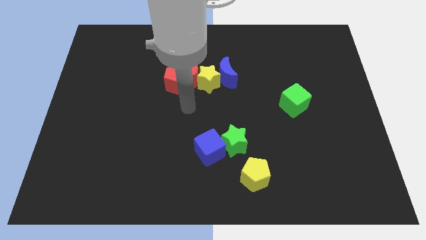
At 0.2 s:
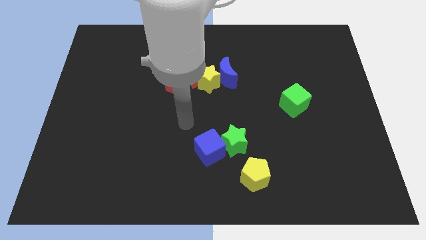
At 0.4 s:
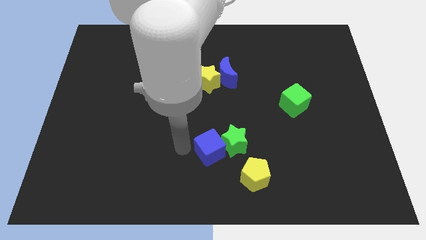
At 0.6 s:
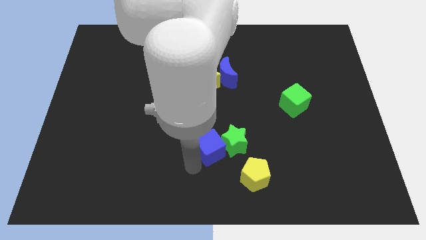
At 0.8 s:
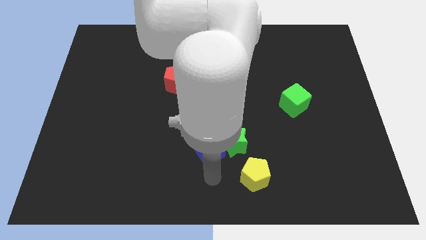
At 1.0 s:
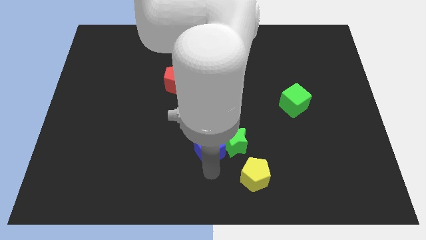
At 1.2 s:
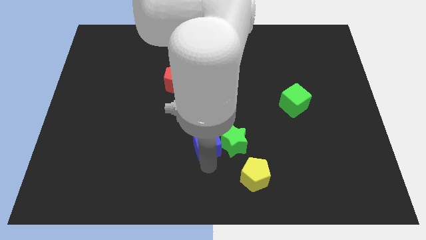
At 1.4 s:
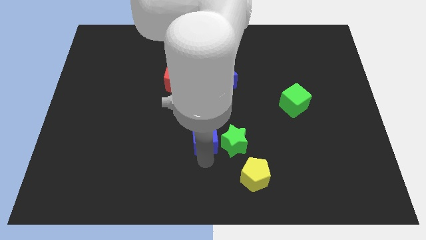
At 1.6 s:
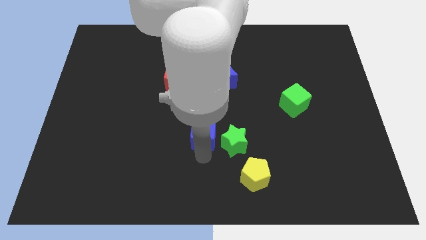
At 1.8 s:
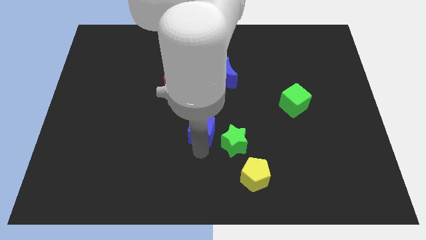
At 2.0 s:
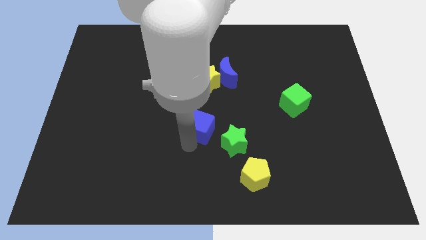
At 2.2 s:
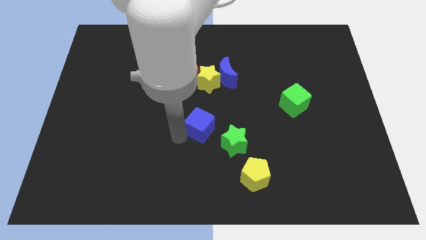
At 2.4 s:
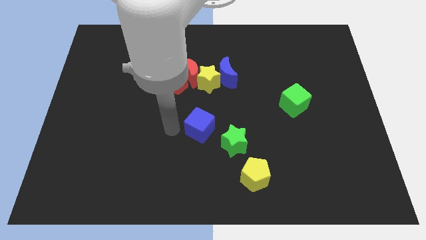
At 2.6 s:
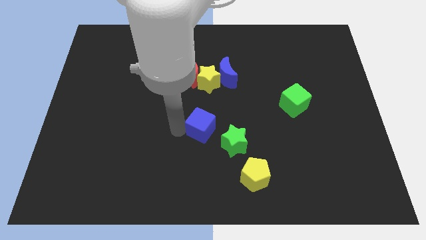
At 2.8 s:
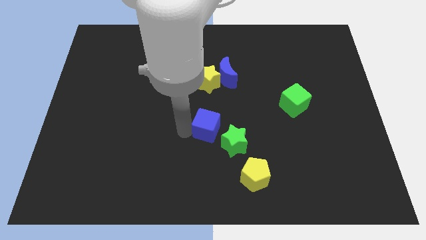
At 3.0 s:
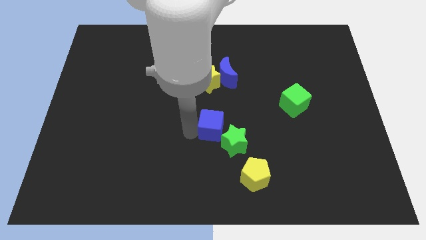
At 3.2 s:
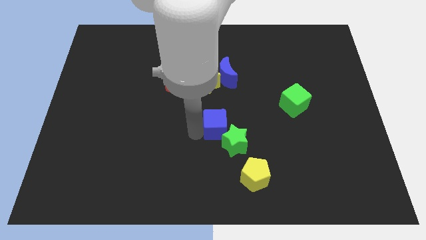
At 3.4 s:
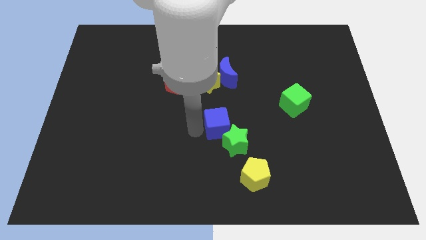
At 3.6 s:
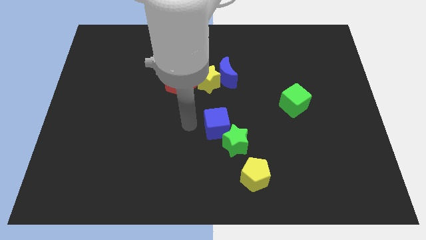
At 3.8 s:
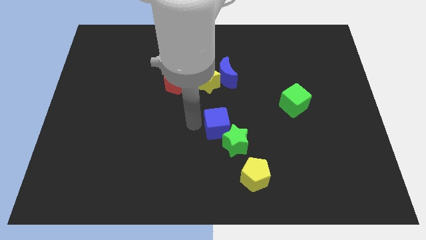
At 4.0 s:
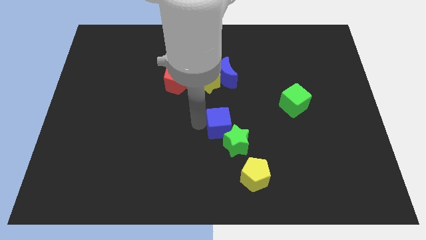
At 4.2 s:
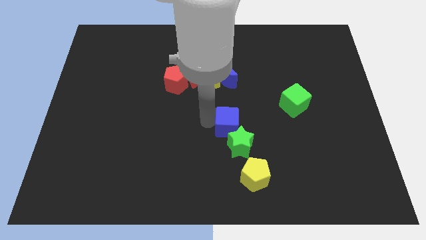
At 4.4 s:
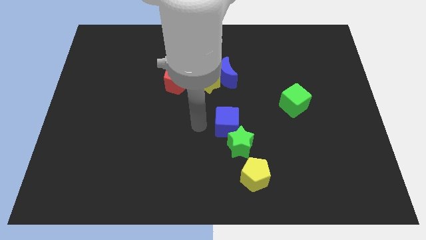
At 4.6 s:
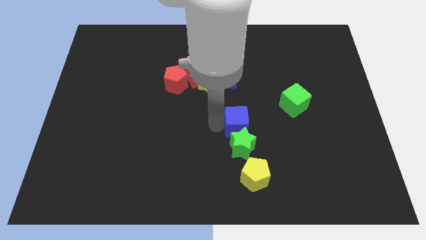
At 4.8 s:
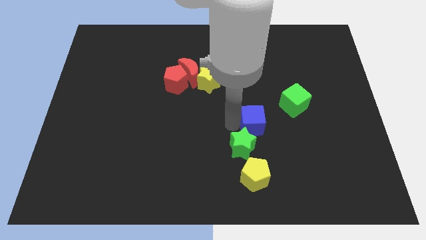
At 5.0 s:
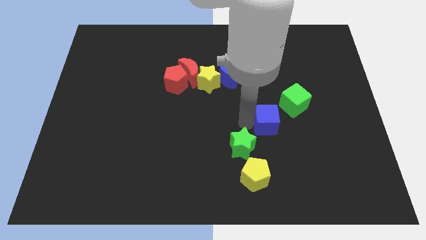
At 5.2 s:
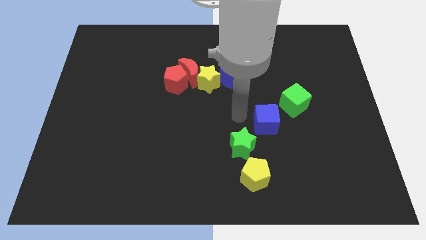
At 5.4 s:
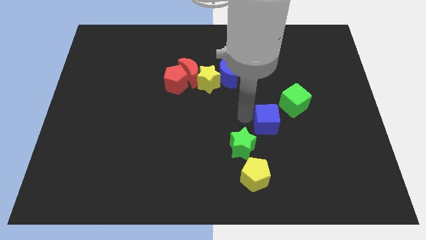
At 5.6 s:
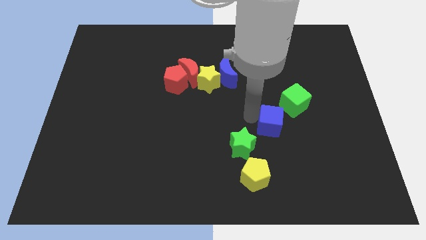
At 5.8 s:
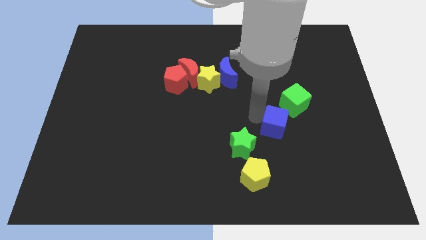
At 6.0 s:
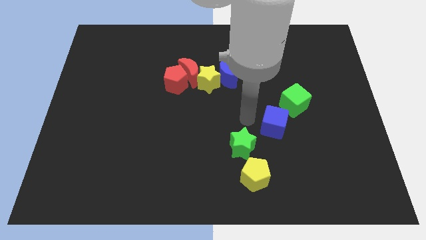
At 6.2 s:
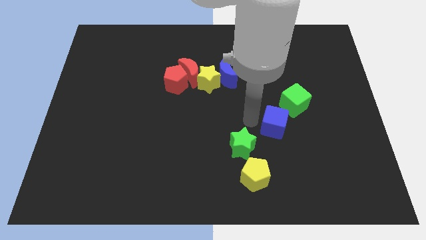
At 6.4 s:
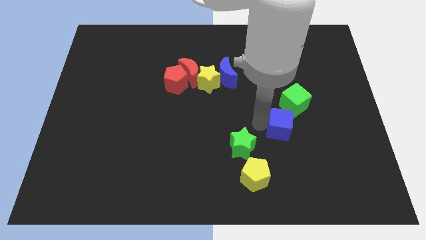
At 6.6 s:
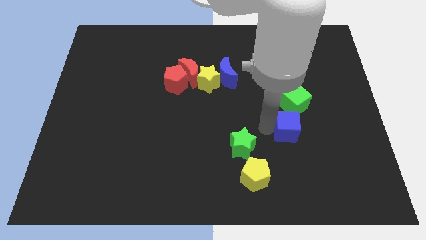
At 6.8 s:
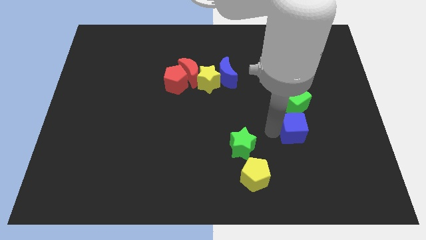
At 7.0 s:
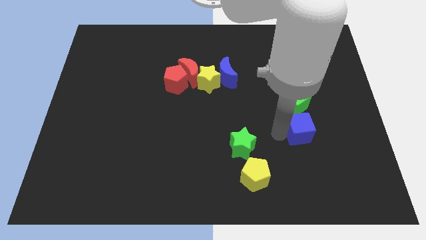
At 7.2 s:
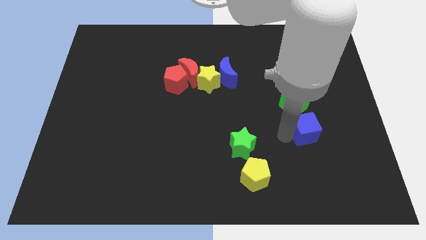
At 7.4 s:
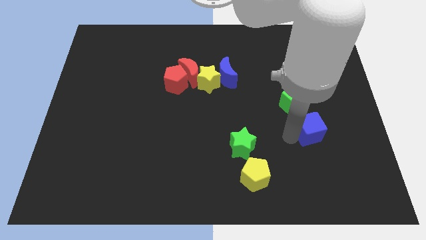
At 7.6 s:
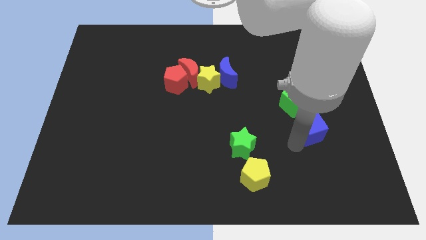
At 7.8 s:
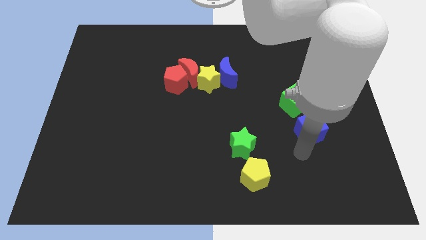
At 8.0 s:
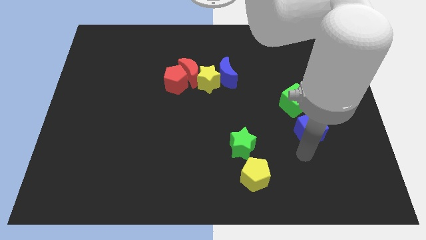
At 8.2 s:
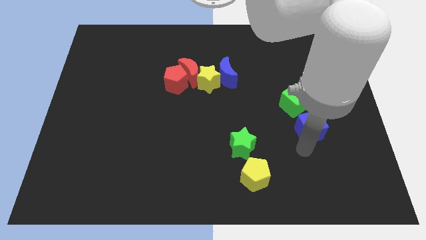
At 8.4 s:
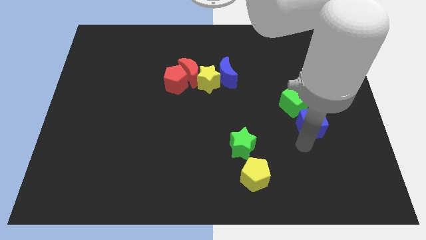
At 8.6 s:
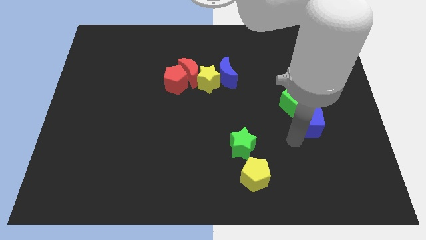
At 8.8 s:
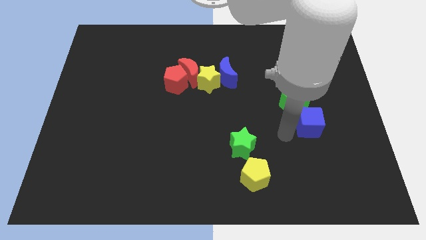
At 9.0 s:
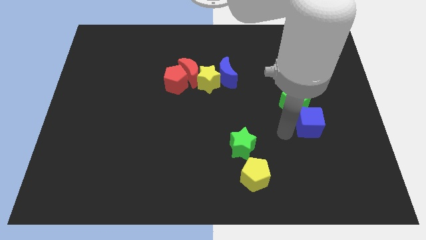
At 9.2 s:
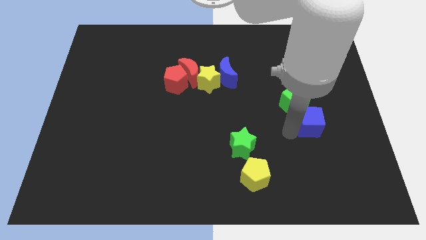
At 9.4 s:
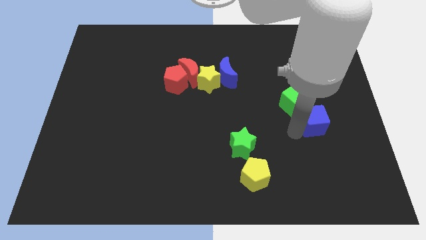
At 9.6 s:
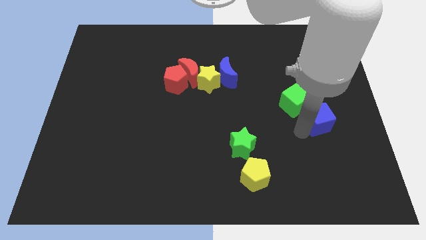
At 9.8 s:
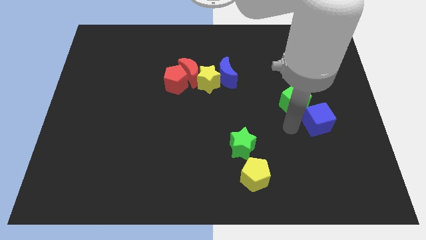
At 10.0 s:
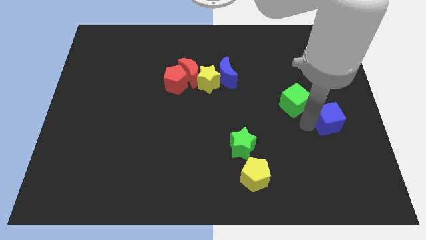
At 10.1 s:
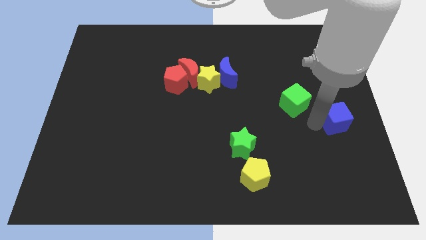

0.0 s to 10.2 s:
slide the blue cube to the right side of the board

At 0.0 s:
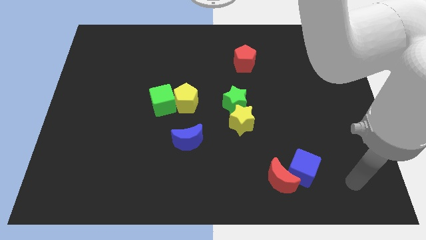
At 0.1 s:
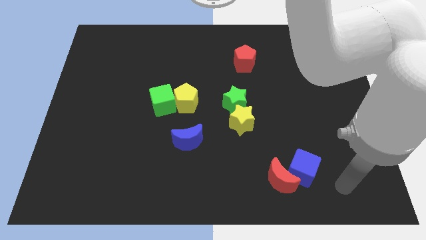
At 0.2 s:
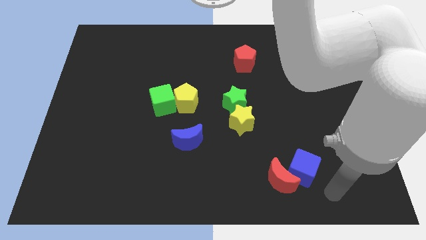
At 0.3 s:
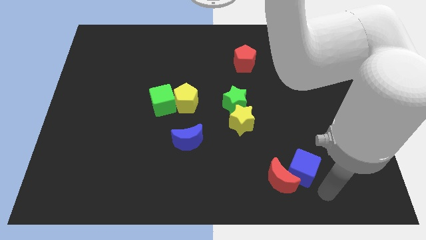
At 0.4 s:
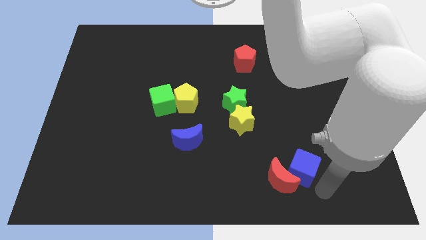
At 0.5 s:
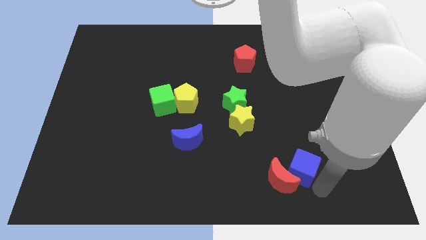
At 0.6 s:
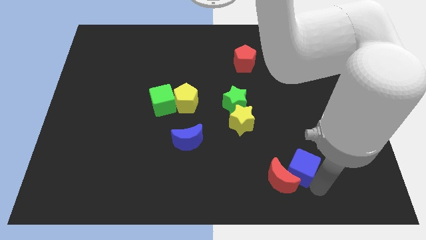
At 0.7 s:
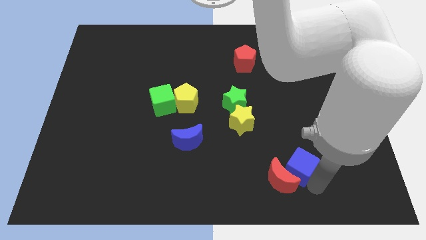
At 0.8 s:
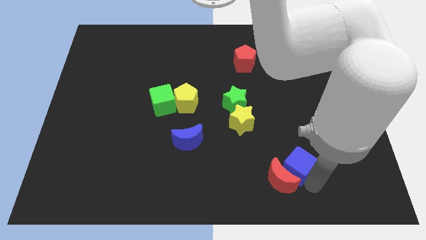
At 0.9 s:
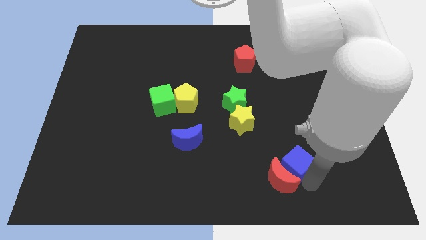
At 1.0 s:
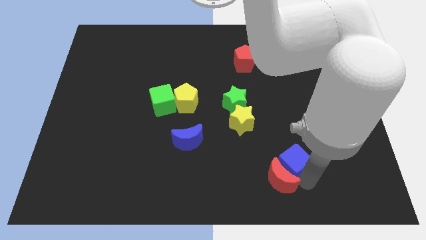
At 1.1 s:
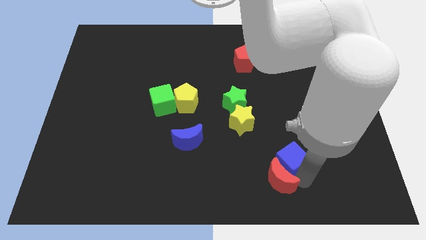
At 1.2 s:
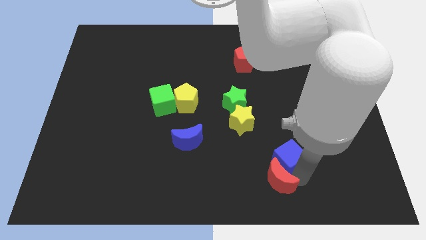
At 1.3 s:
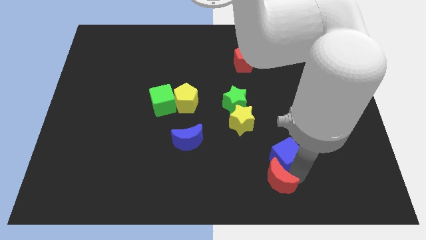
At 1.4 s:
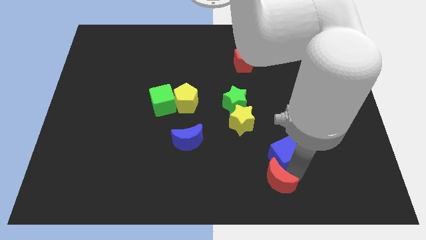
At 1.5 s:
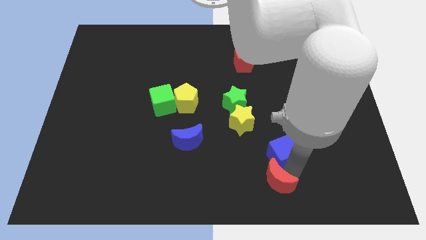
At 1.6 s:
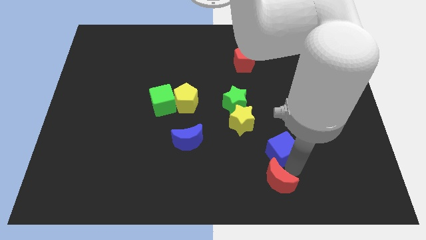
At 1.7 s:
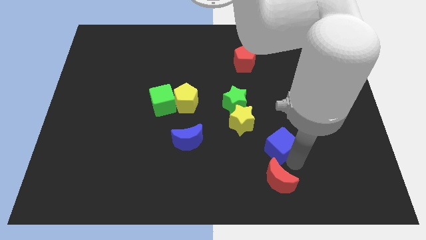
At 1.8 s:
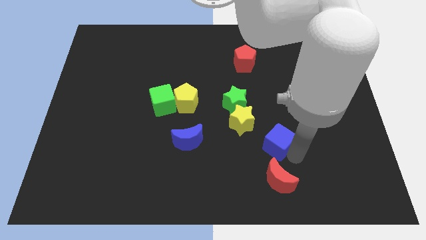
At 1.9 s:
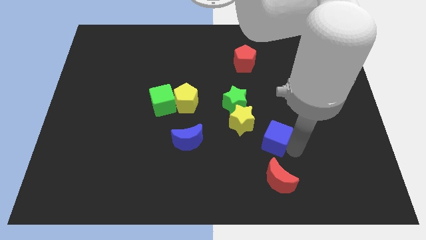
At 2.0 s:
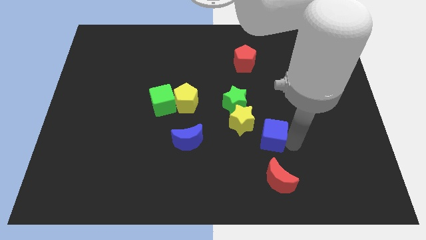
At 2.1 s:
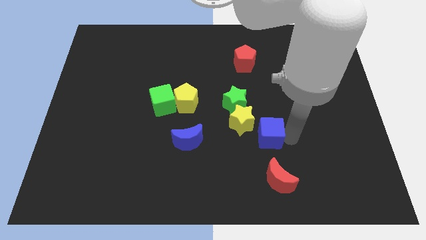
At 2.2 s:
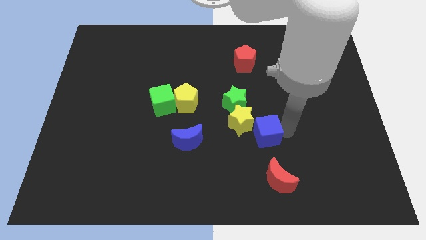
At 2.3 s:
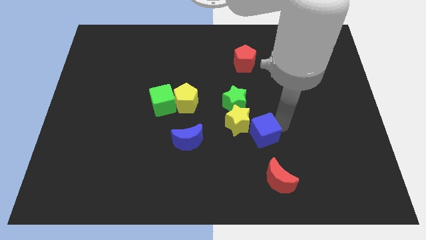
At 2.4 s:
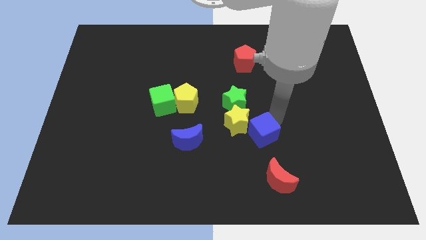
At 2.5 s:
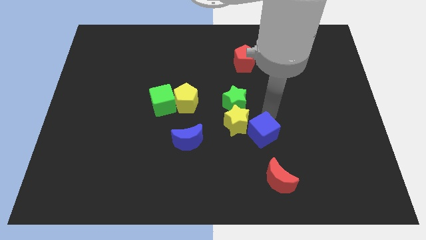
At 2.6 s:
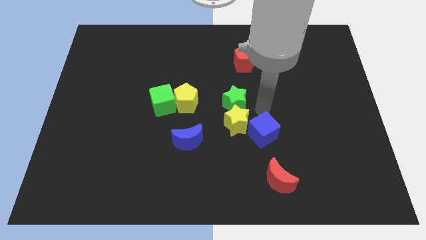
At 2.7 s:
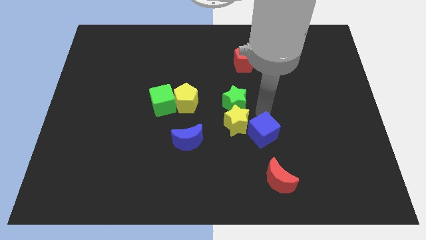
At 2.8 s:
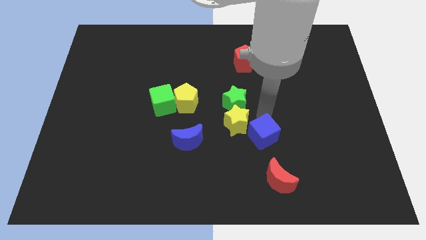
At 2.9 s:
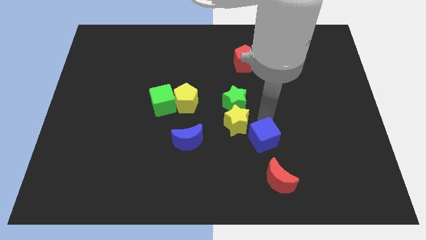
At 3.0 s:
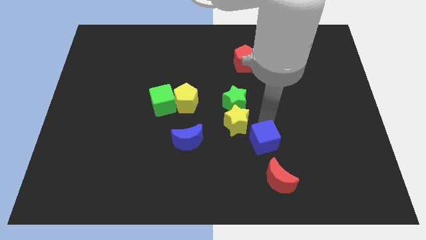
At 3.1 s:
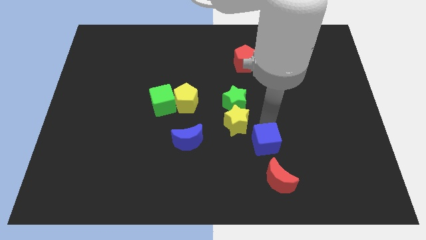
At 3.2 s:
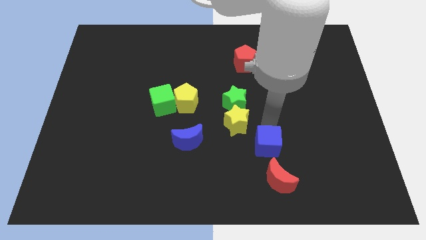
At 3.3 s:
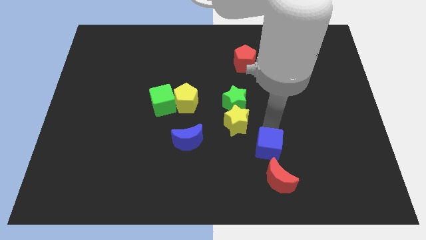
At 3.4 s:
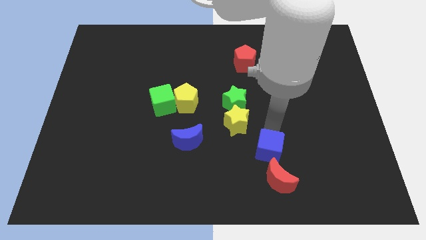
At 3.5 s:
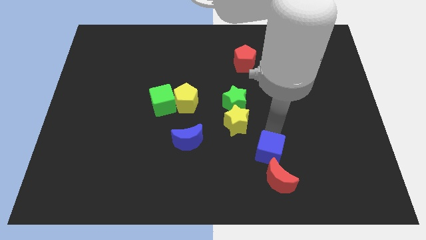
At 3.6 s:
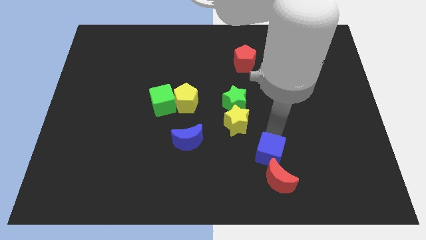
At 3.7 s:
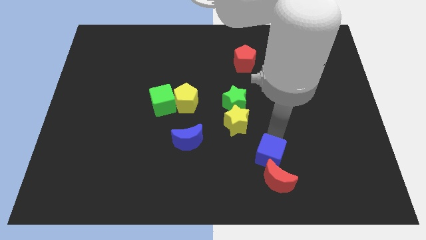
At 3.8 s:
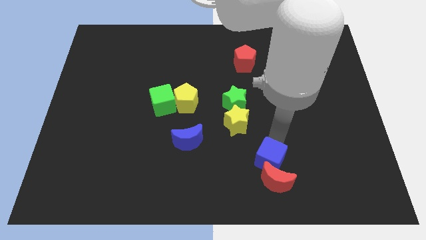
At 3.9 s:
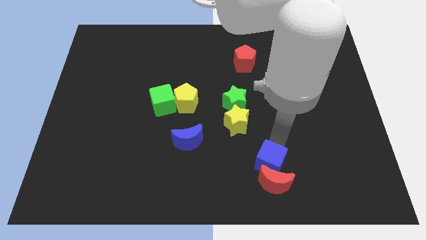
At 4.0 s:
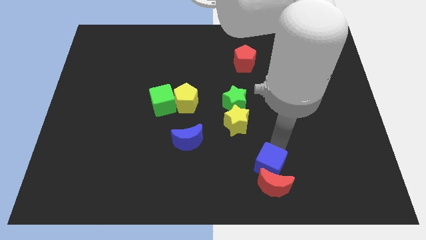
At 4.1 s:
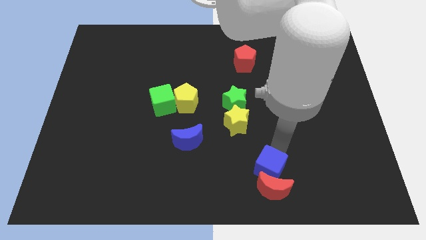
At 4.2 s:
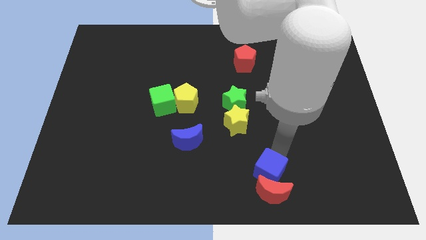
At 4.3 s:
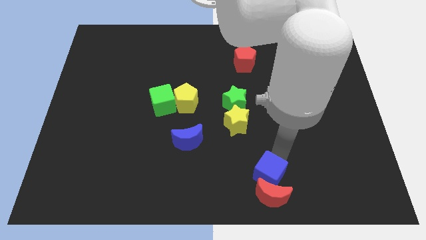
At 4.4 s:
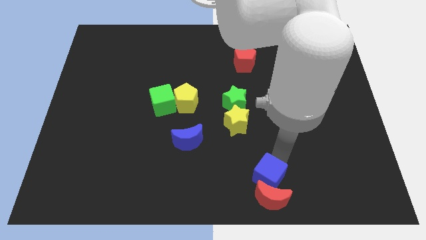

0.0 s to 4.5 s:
push the blue cube to the bottom side
